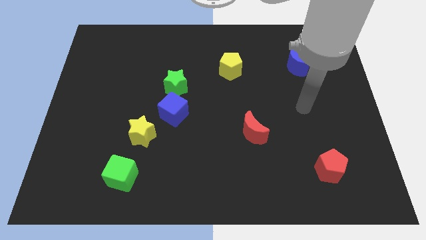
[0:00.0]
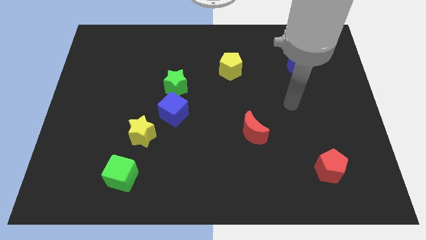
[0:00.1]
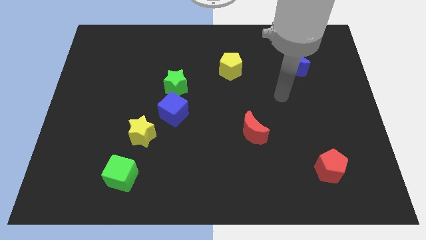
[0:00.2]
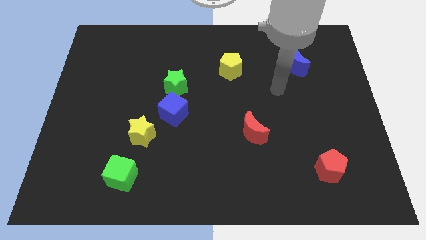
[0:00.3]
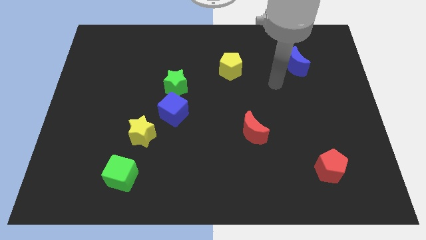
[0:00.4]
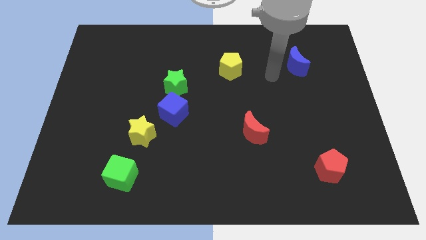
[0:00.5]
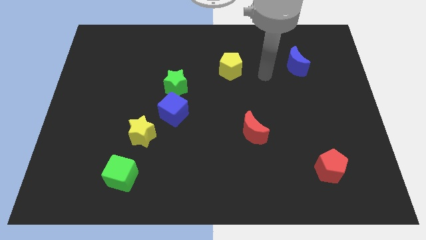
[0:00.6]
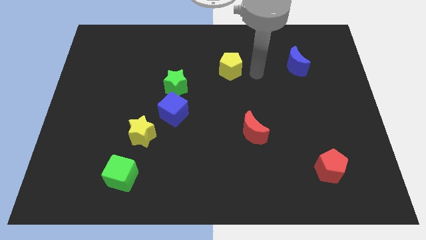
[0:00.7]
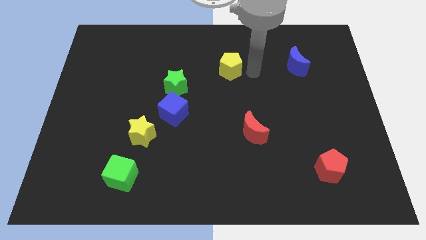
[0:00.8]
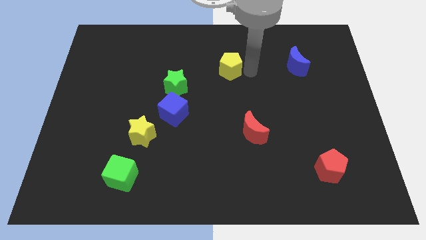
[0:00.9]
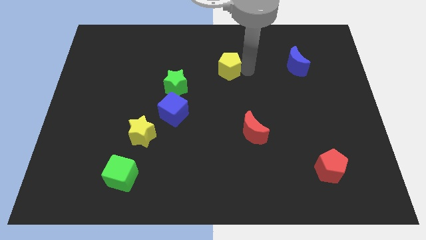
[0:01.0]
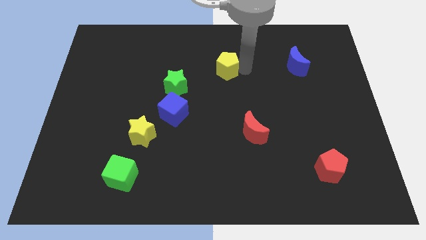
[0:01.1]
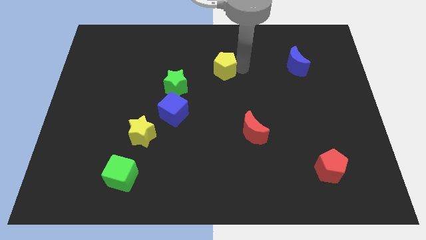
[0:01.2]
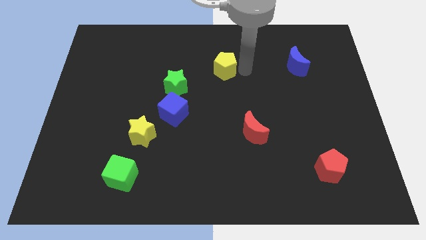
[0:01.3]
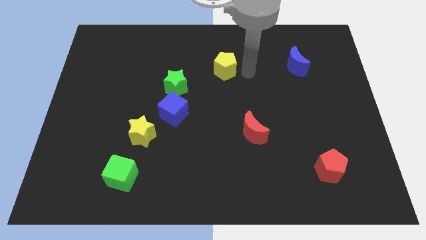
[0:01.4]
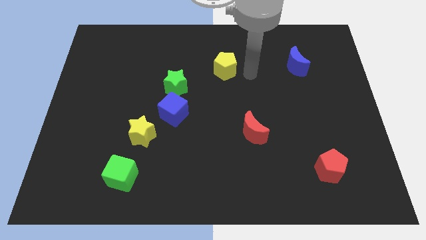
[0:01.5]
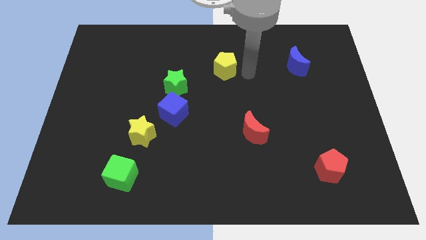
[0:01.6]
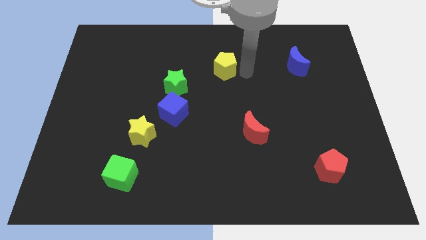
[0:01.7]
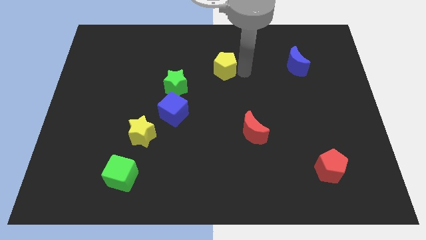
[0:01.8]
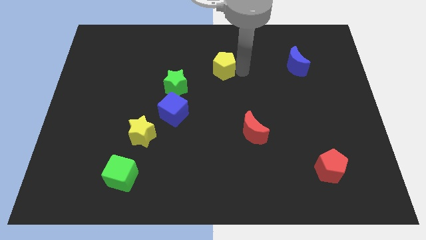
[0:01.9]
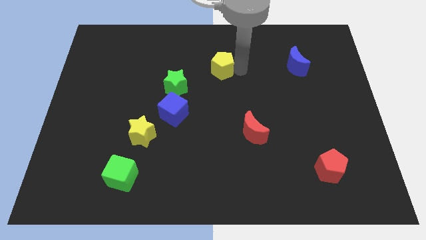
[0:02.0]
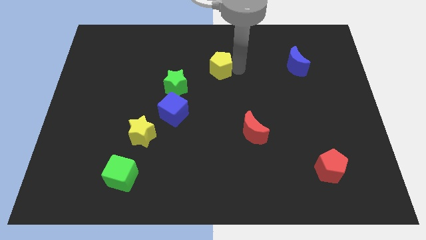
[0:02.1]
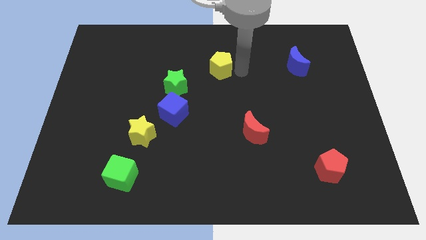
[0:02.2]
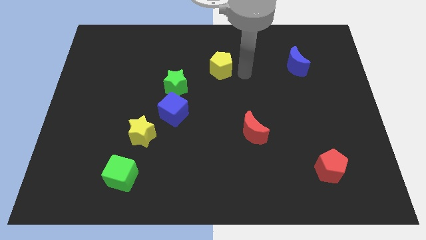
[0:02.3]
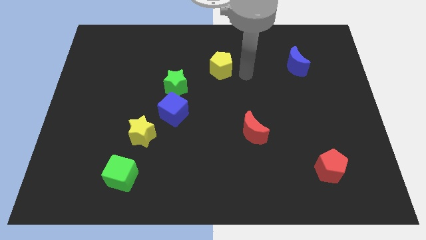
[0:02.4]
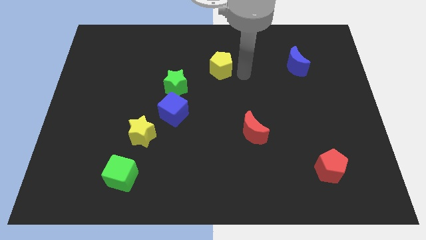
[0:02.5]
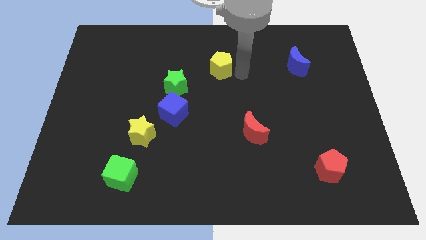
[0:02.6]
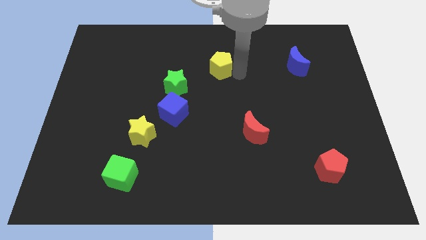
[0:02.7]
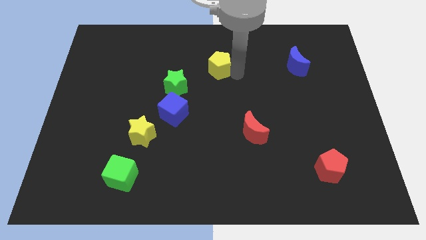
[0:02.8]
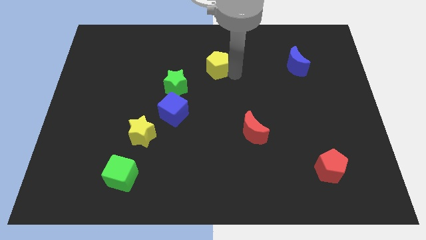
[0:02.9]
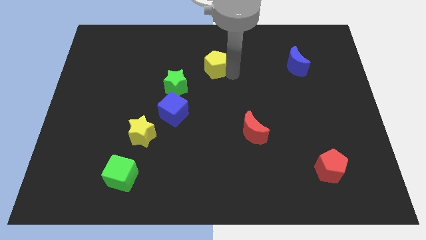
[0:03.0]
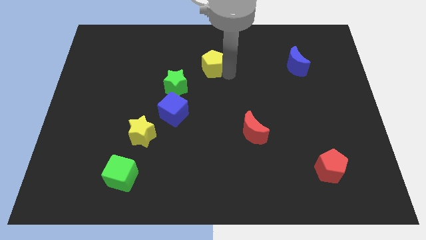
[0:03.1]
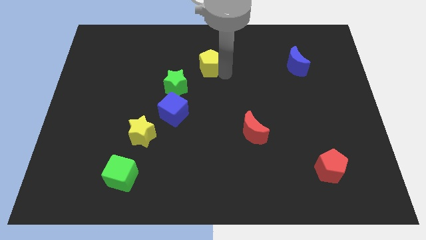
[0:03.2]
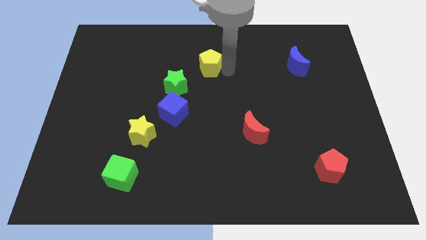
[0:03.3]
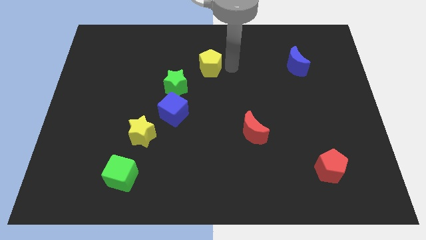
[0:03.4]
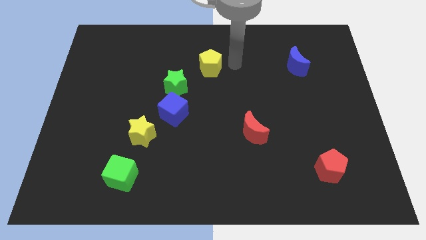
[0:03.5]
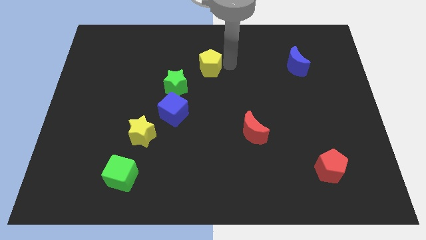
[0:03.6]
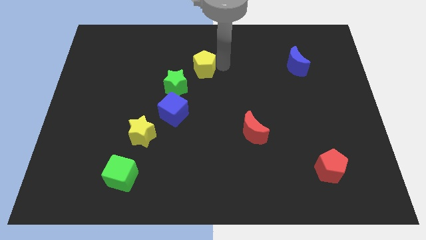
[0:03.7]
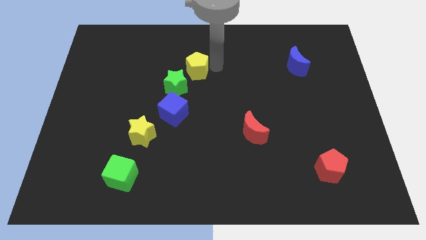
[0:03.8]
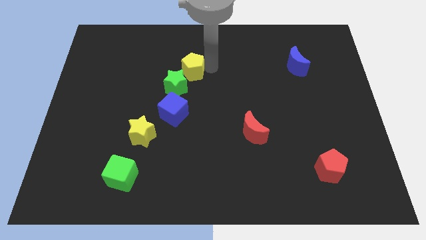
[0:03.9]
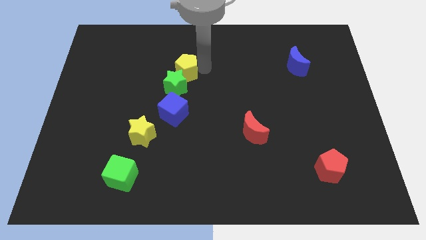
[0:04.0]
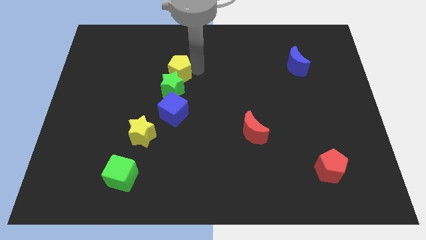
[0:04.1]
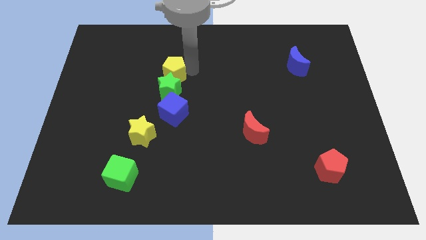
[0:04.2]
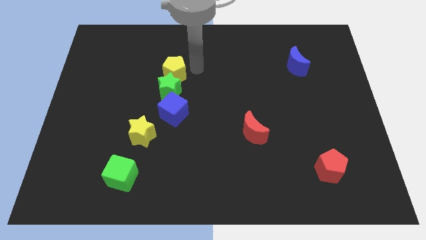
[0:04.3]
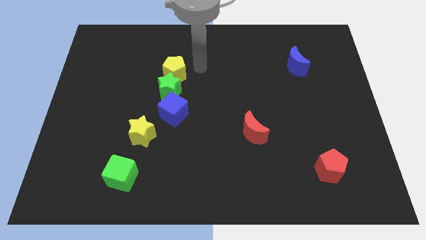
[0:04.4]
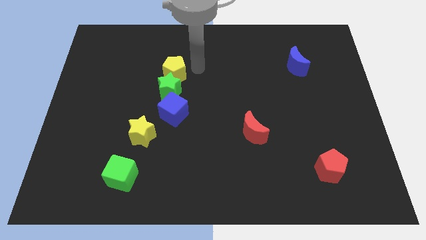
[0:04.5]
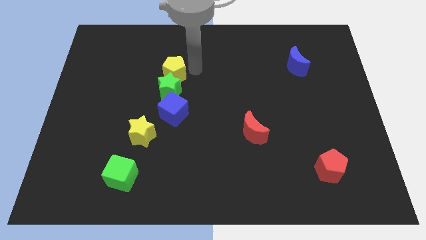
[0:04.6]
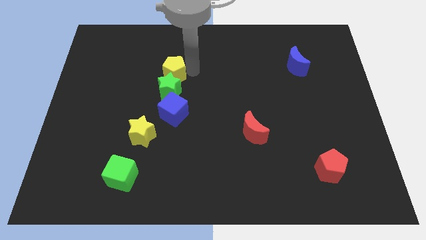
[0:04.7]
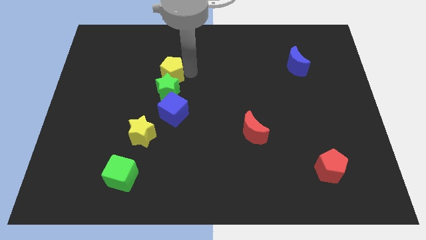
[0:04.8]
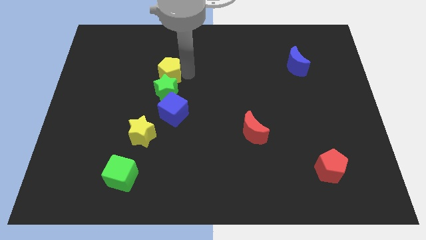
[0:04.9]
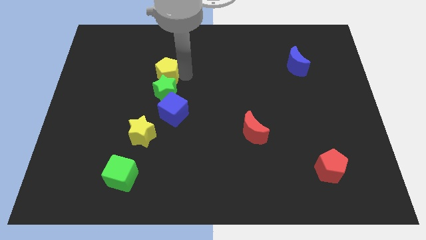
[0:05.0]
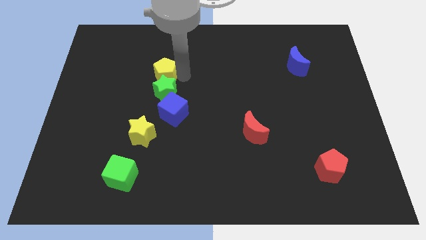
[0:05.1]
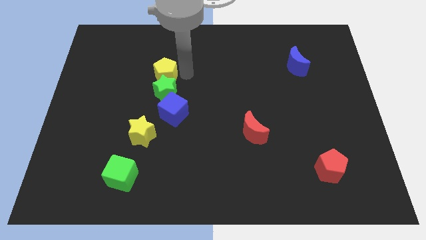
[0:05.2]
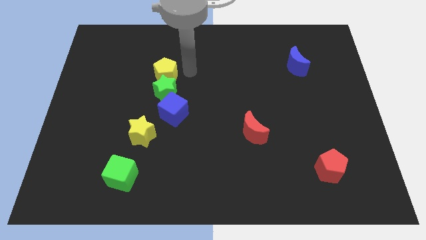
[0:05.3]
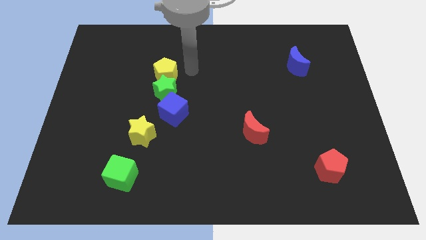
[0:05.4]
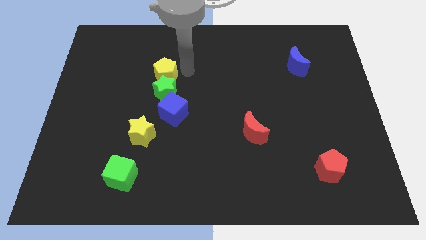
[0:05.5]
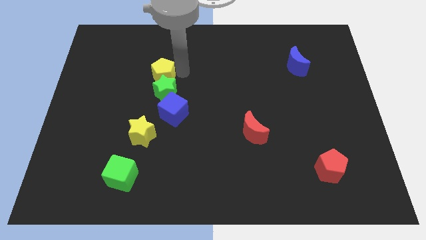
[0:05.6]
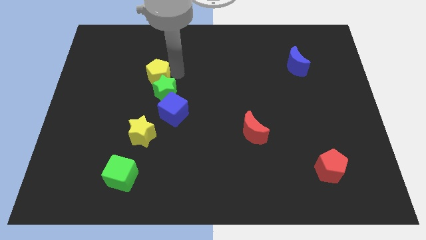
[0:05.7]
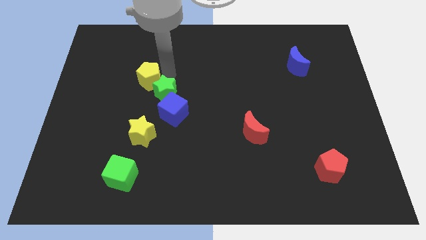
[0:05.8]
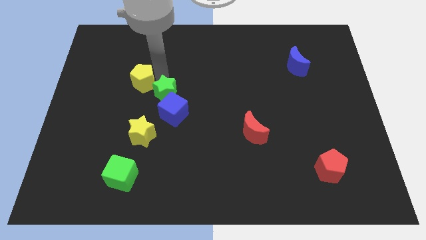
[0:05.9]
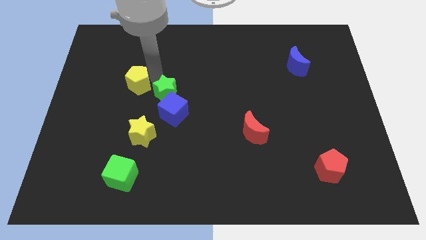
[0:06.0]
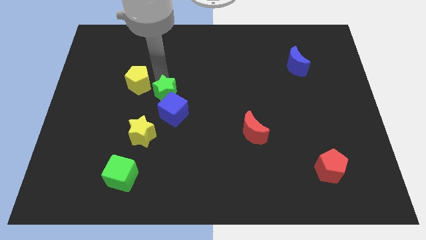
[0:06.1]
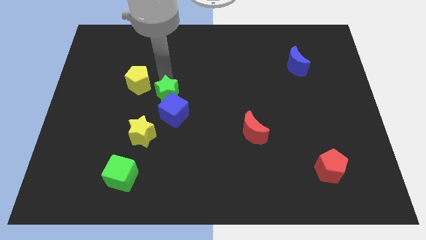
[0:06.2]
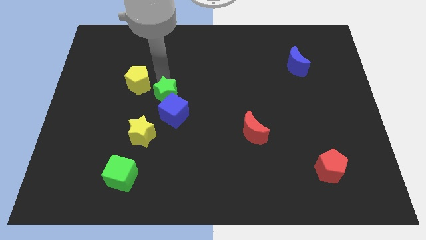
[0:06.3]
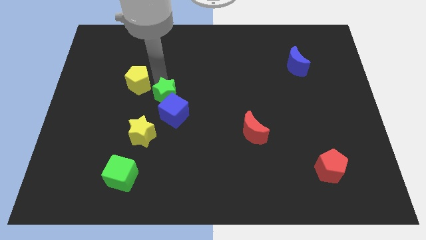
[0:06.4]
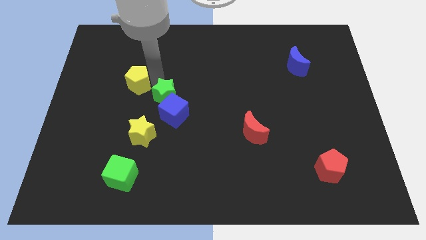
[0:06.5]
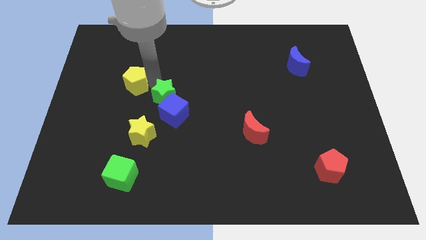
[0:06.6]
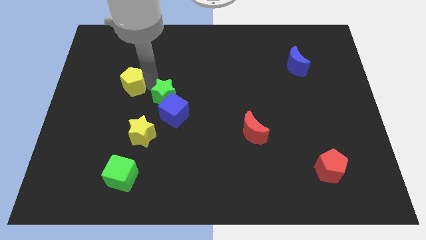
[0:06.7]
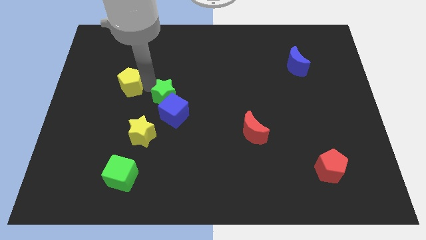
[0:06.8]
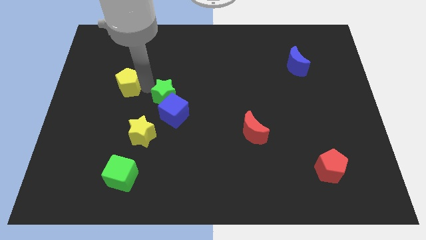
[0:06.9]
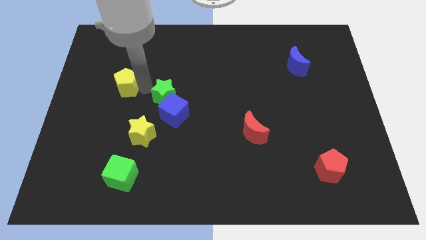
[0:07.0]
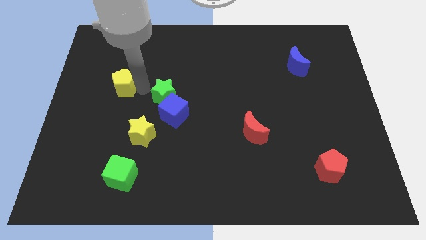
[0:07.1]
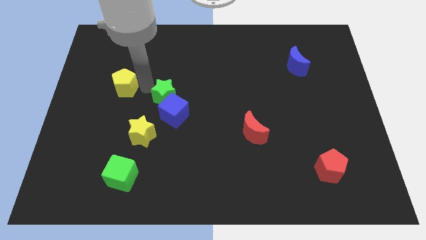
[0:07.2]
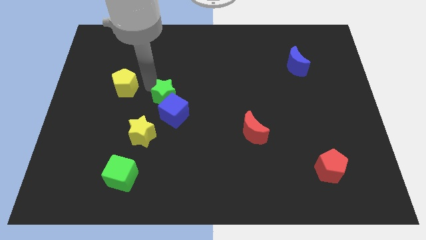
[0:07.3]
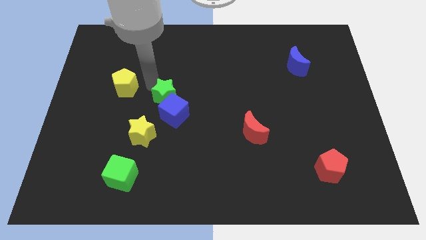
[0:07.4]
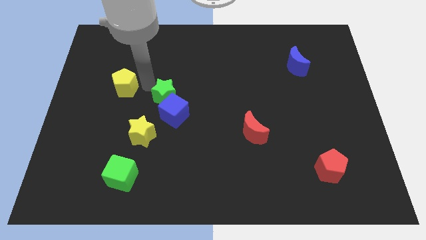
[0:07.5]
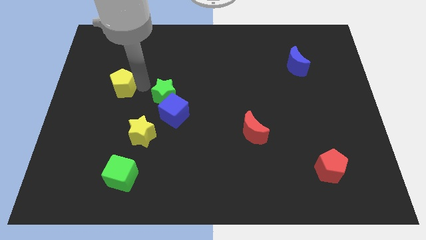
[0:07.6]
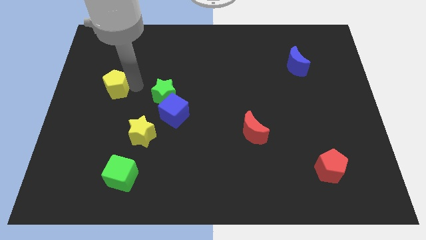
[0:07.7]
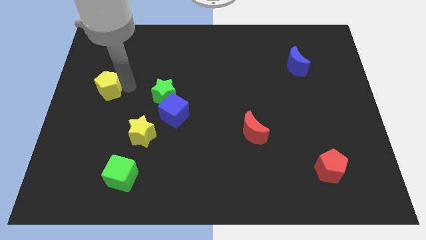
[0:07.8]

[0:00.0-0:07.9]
slide the yellow pentagon to the left side of the board

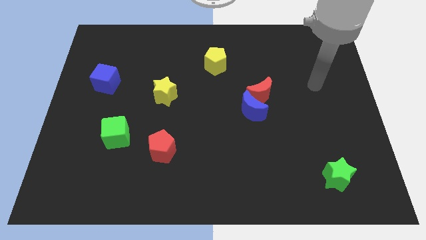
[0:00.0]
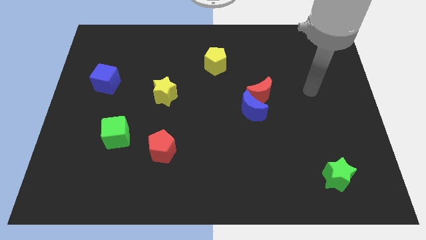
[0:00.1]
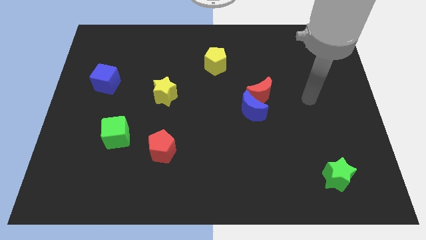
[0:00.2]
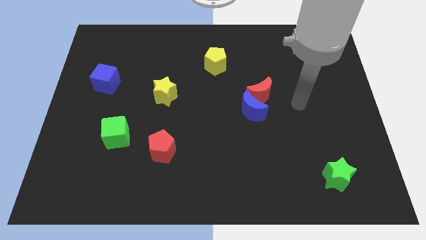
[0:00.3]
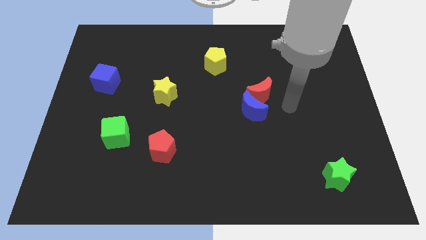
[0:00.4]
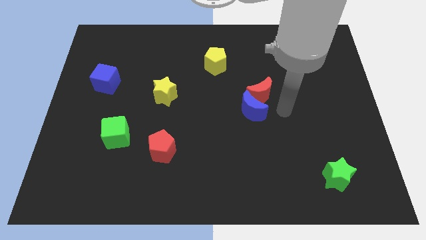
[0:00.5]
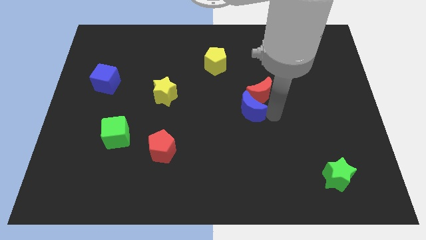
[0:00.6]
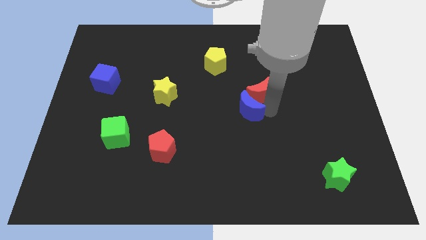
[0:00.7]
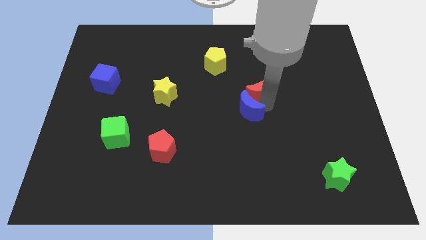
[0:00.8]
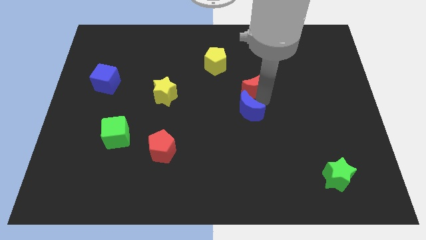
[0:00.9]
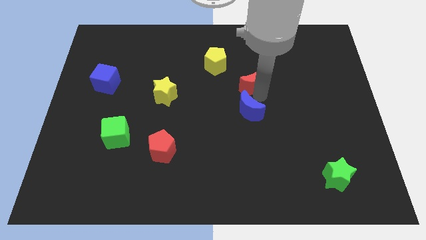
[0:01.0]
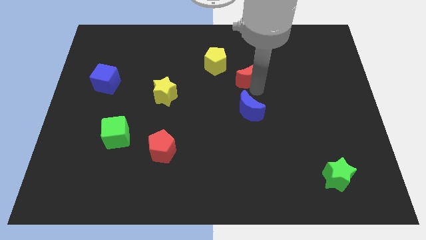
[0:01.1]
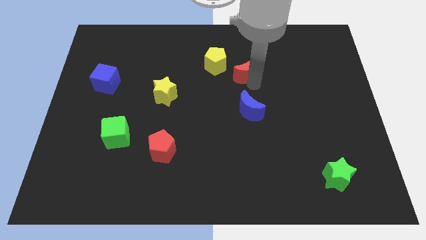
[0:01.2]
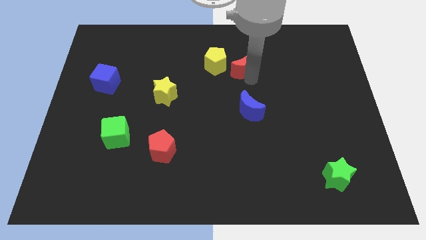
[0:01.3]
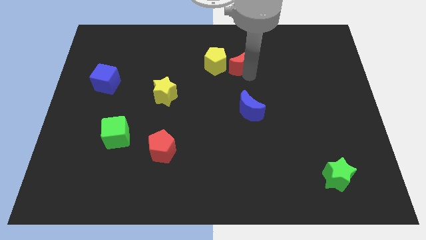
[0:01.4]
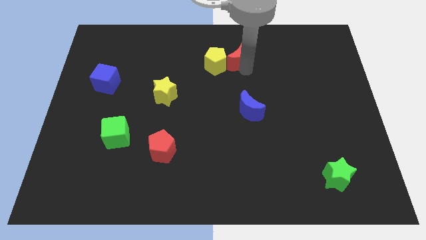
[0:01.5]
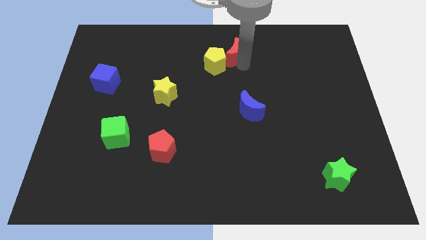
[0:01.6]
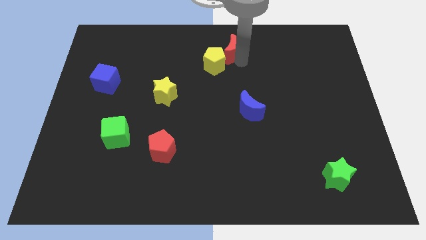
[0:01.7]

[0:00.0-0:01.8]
move the red moon to the top
